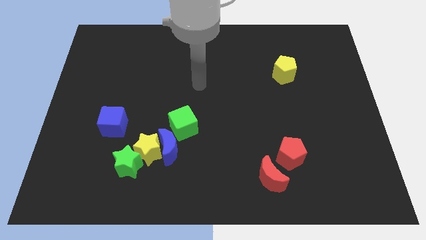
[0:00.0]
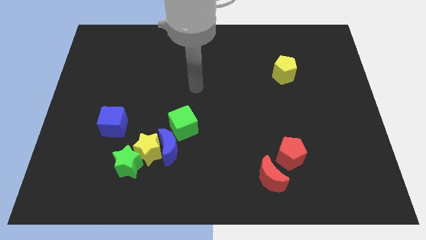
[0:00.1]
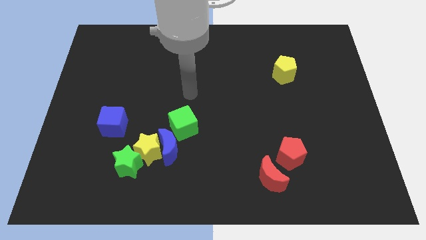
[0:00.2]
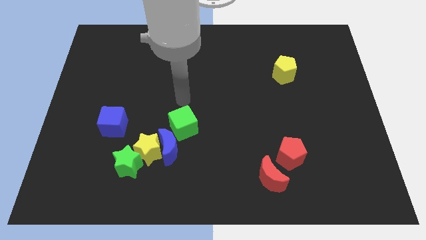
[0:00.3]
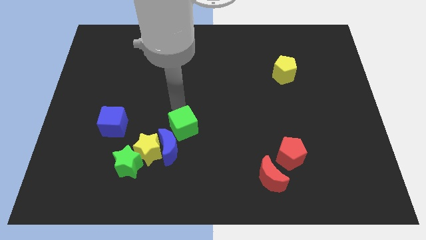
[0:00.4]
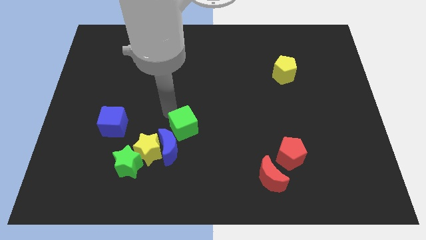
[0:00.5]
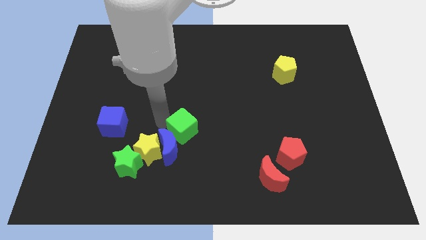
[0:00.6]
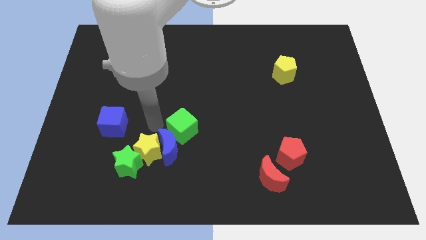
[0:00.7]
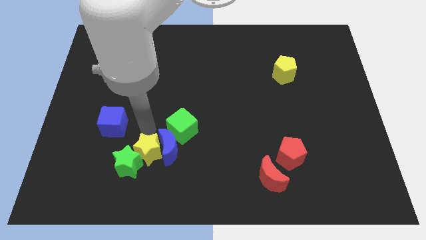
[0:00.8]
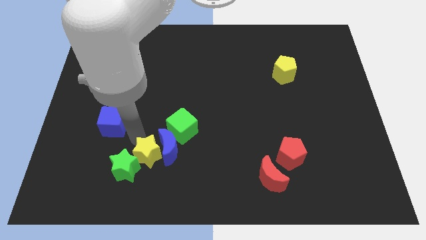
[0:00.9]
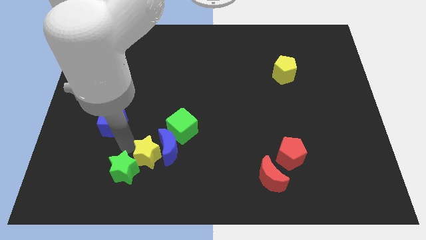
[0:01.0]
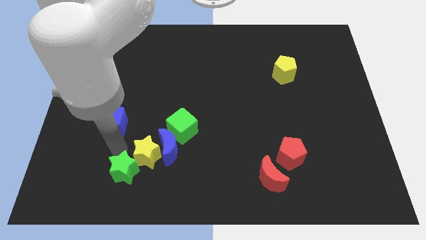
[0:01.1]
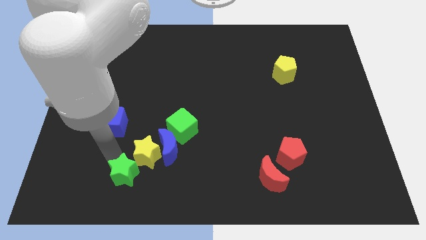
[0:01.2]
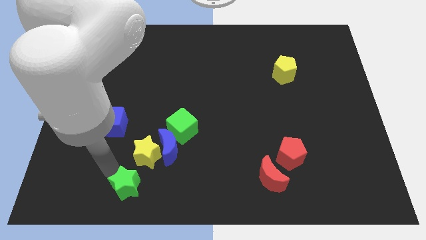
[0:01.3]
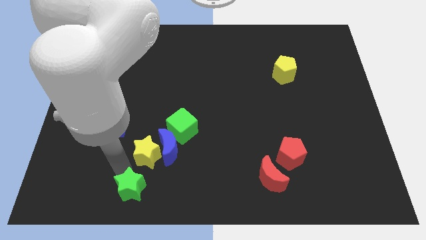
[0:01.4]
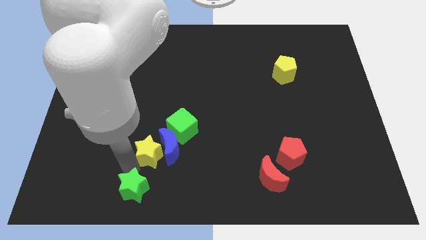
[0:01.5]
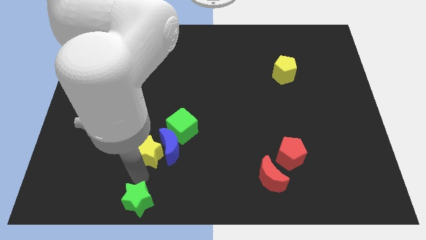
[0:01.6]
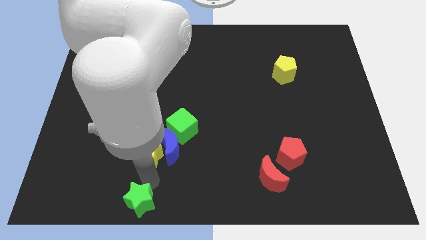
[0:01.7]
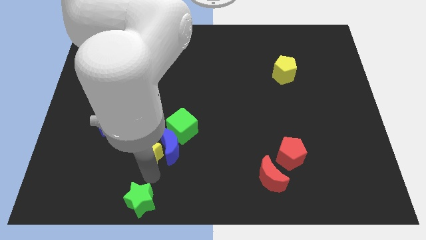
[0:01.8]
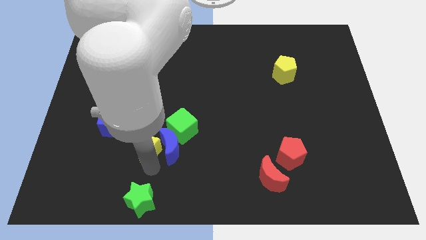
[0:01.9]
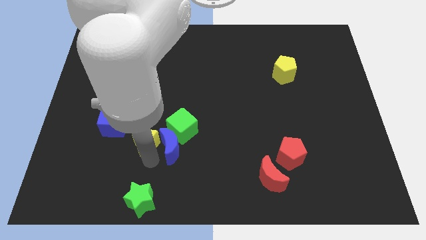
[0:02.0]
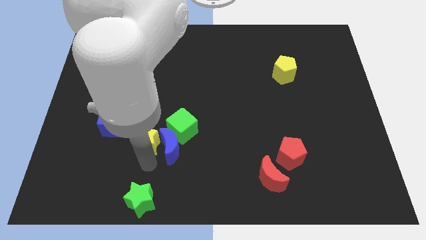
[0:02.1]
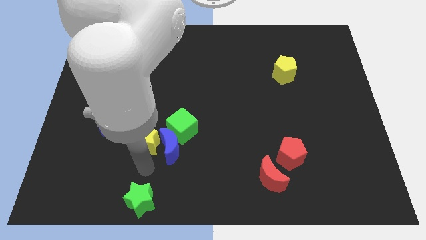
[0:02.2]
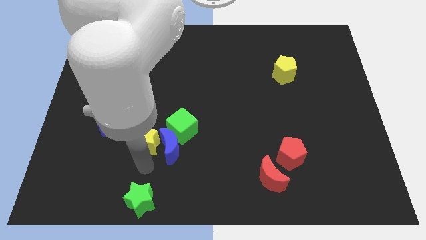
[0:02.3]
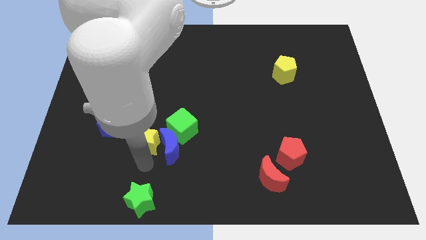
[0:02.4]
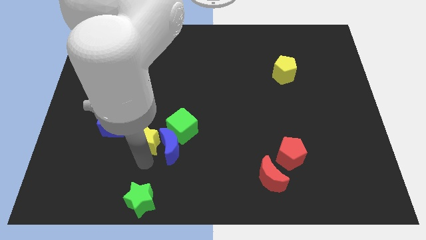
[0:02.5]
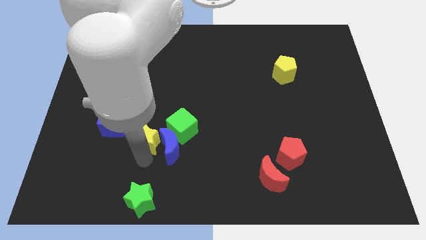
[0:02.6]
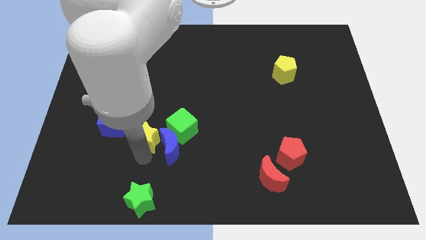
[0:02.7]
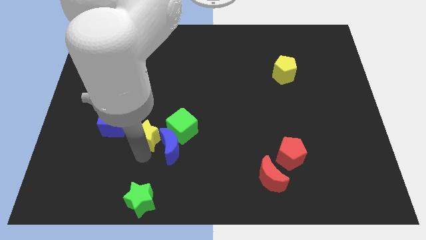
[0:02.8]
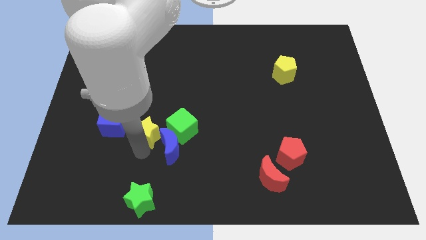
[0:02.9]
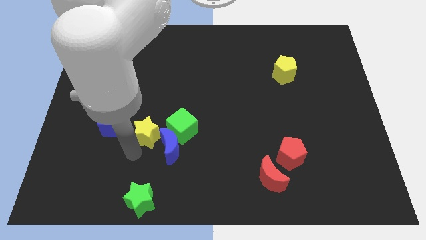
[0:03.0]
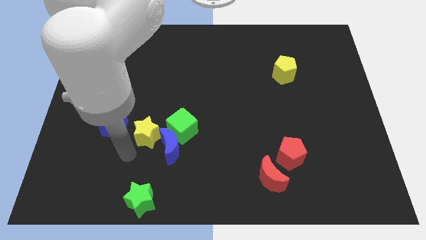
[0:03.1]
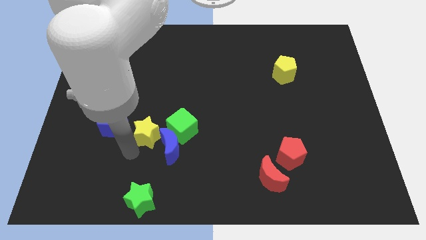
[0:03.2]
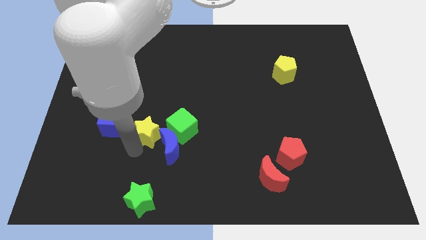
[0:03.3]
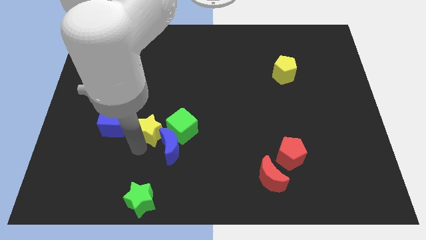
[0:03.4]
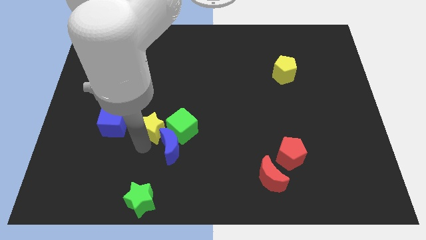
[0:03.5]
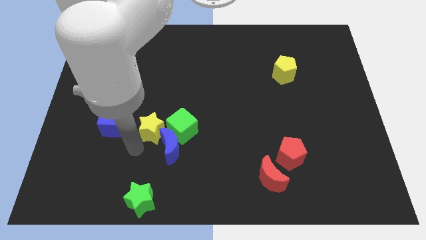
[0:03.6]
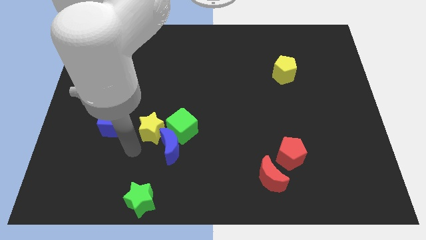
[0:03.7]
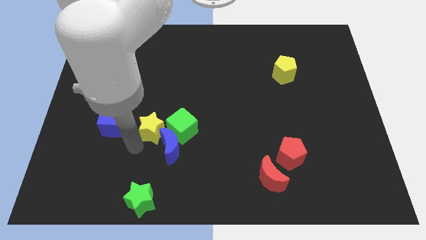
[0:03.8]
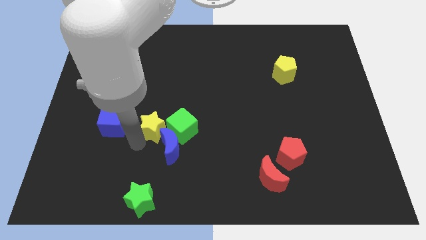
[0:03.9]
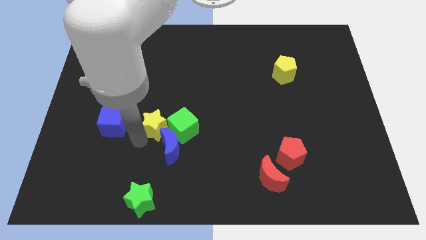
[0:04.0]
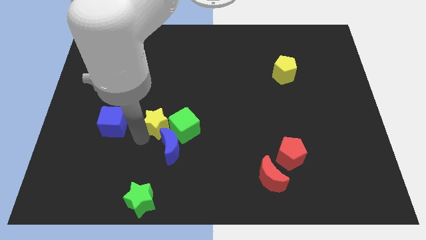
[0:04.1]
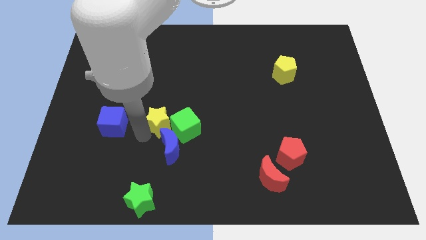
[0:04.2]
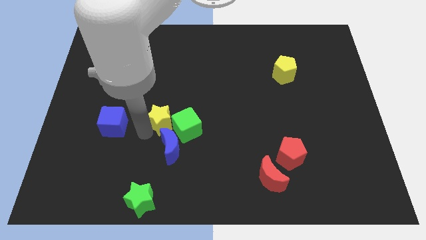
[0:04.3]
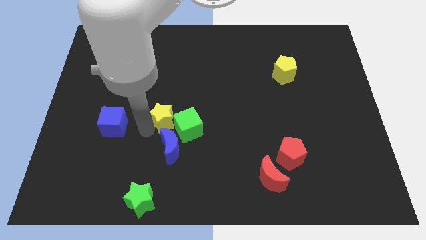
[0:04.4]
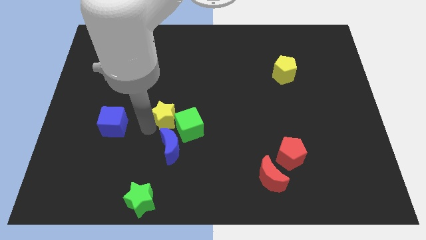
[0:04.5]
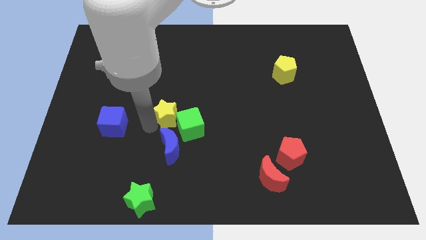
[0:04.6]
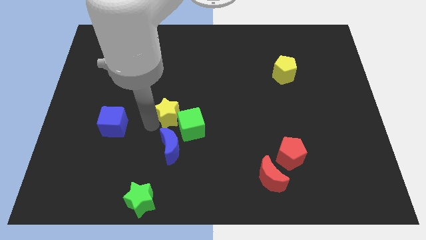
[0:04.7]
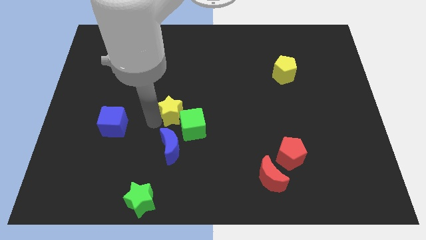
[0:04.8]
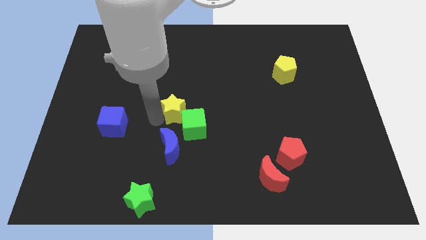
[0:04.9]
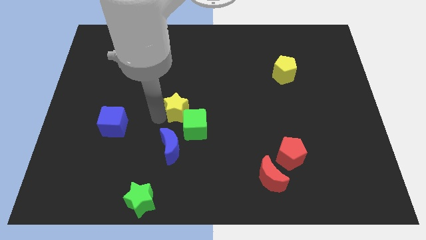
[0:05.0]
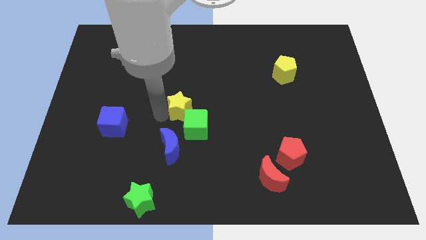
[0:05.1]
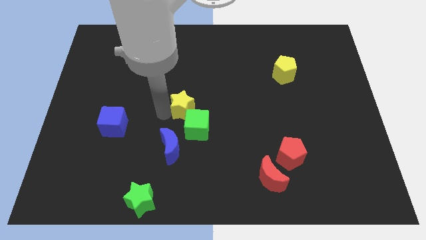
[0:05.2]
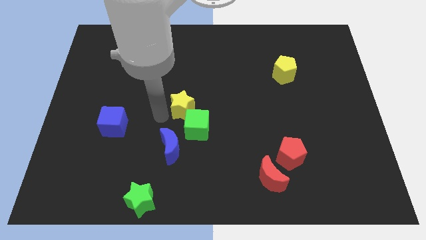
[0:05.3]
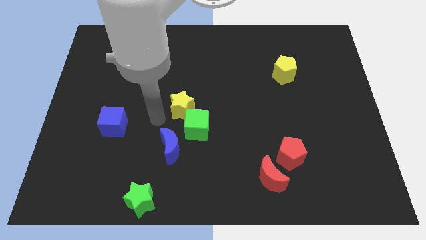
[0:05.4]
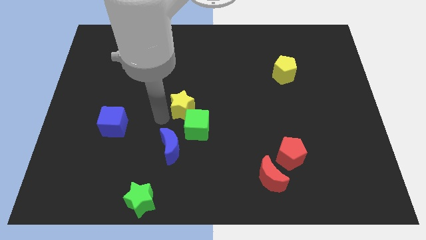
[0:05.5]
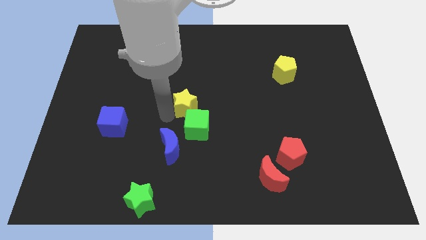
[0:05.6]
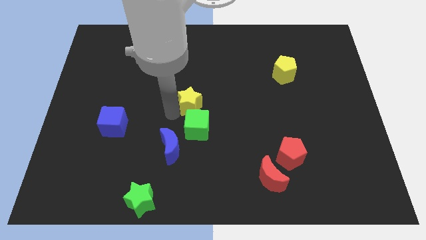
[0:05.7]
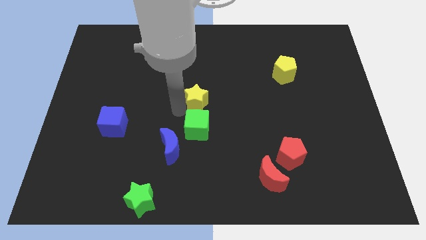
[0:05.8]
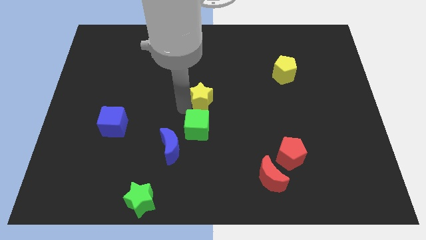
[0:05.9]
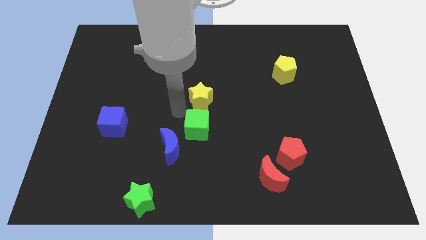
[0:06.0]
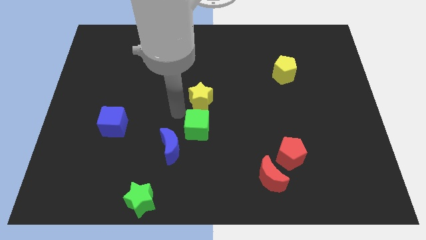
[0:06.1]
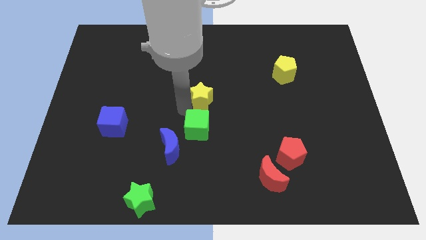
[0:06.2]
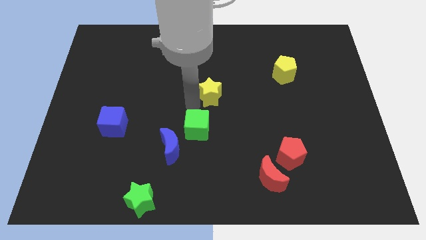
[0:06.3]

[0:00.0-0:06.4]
move the yellow star up and right

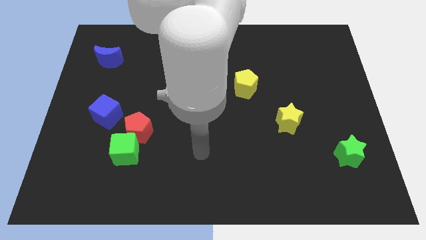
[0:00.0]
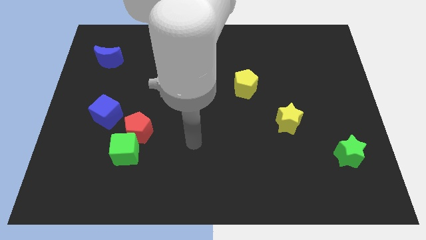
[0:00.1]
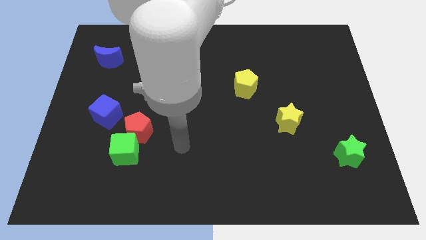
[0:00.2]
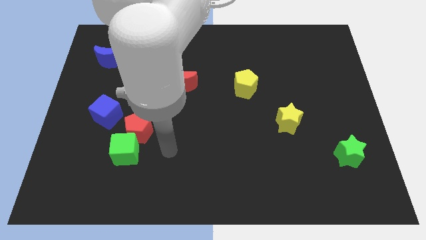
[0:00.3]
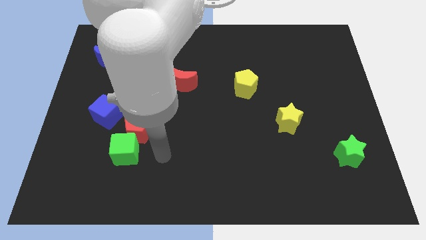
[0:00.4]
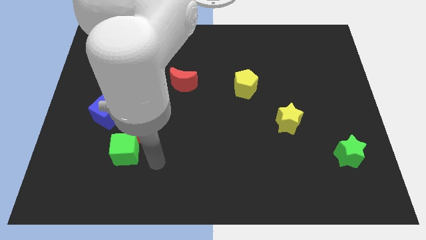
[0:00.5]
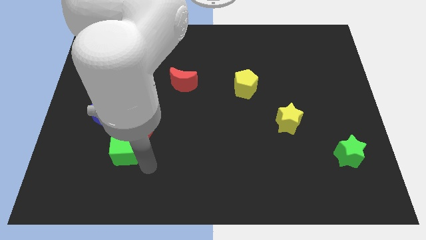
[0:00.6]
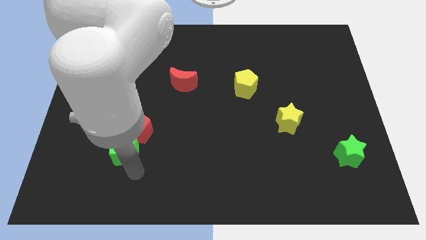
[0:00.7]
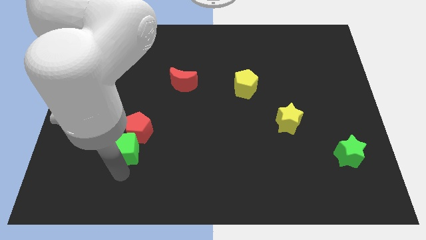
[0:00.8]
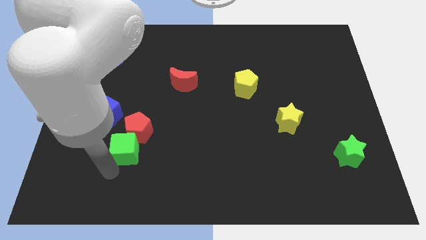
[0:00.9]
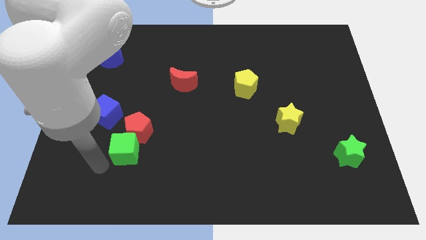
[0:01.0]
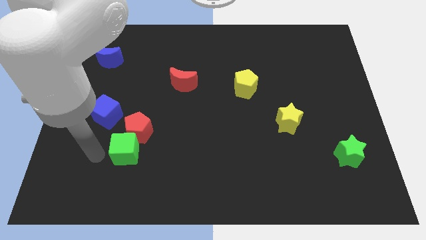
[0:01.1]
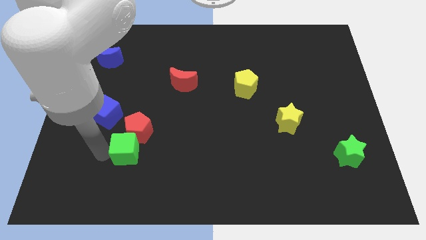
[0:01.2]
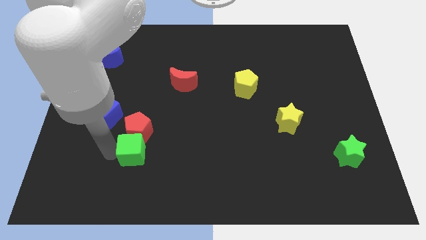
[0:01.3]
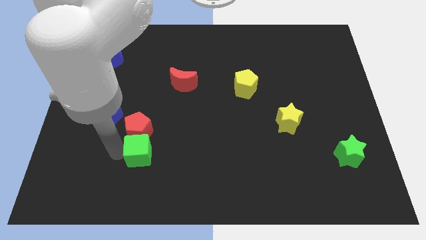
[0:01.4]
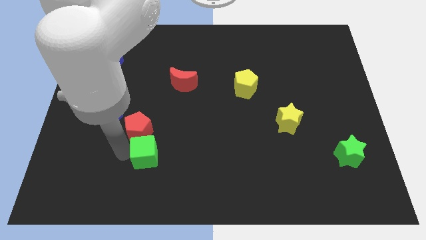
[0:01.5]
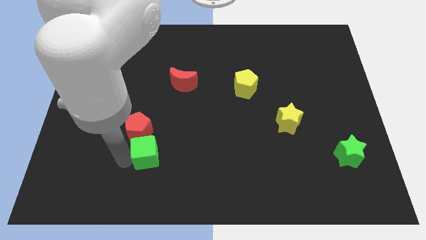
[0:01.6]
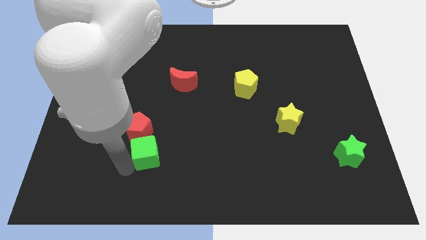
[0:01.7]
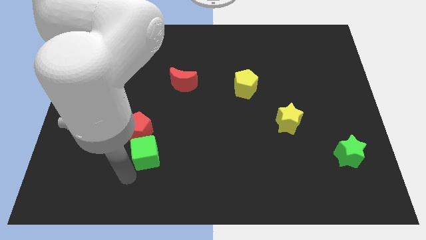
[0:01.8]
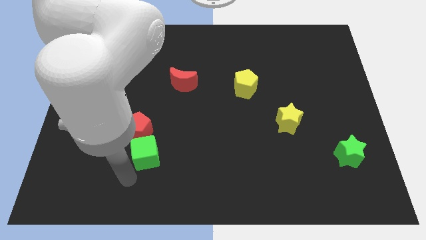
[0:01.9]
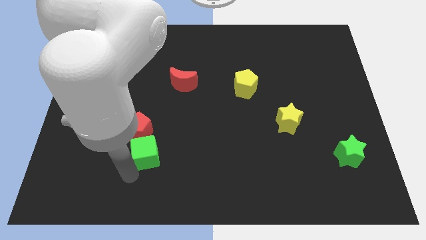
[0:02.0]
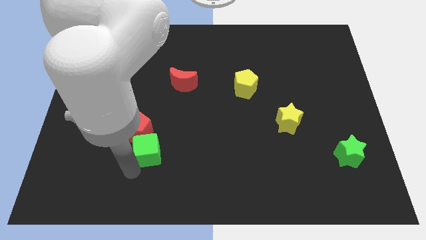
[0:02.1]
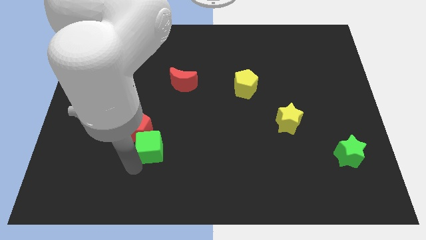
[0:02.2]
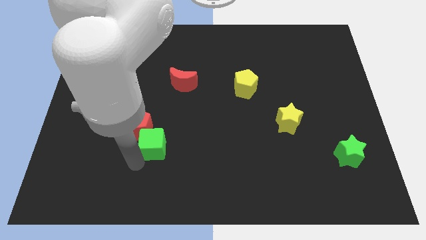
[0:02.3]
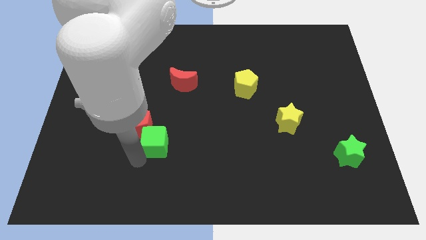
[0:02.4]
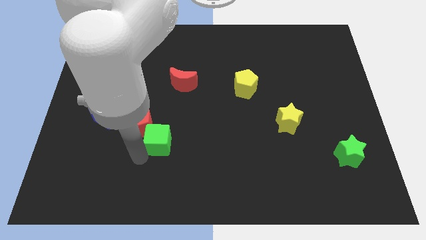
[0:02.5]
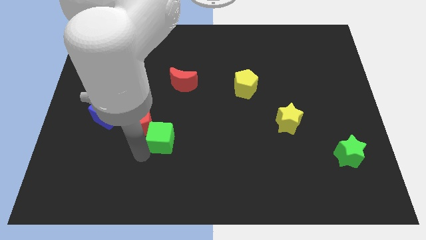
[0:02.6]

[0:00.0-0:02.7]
move the green cube up and right somewhat
